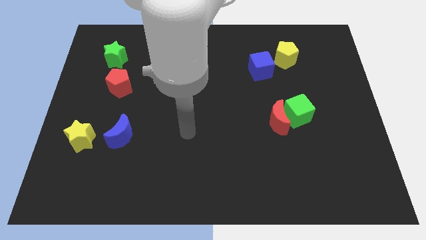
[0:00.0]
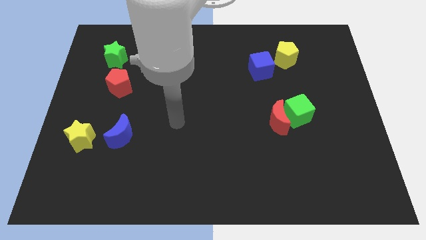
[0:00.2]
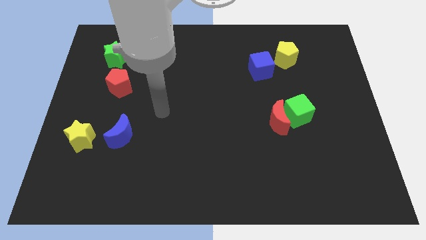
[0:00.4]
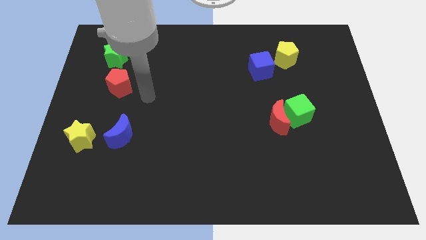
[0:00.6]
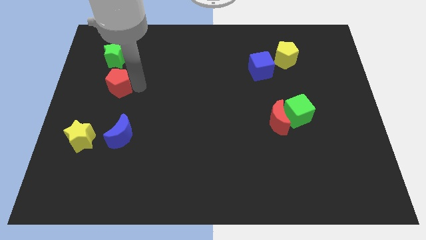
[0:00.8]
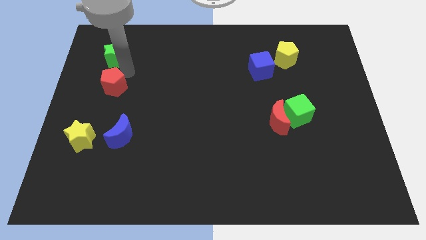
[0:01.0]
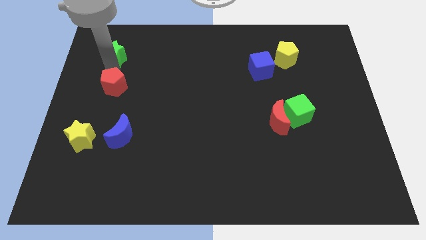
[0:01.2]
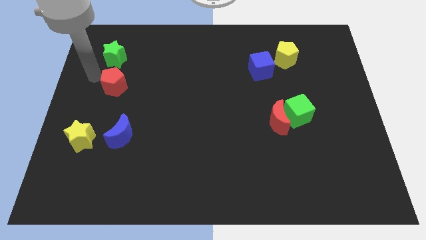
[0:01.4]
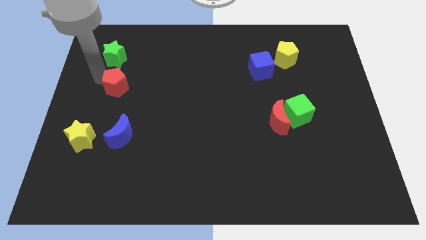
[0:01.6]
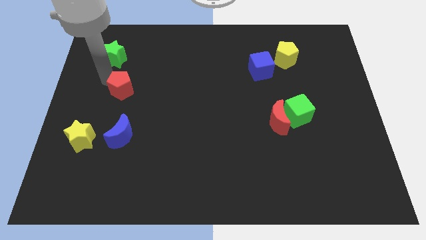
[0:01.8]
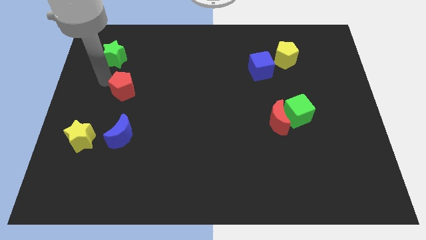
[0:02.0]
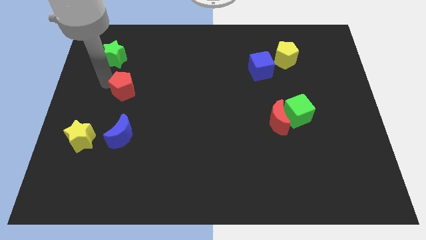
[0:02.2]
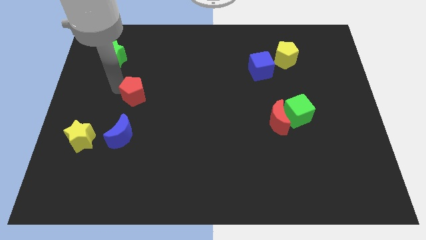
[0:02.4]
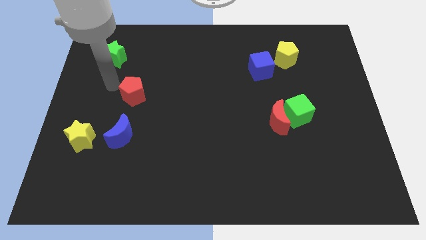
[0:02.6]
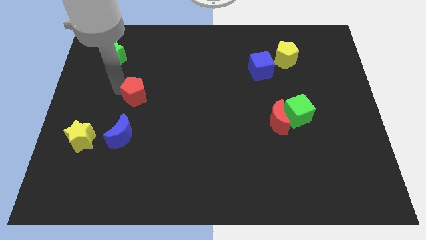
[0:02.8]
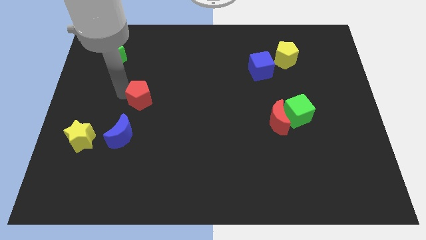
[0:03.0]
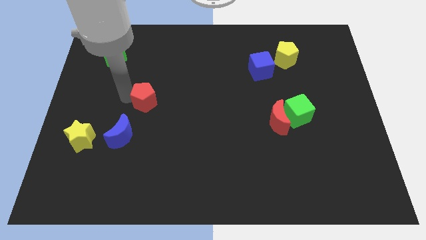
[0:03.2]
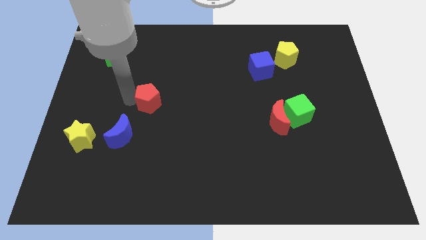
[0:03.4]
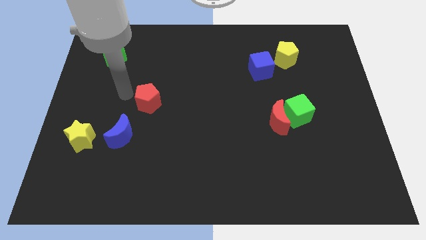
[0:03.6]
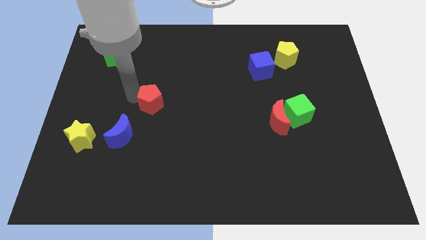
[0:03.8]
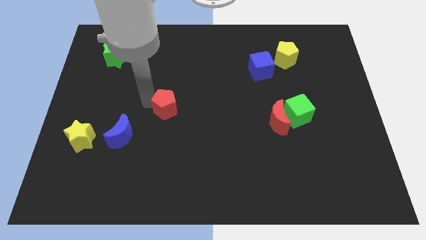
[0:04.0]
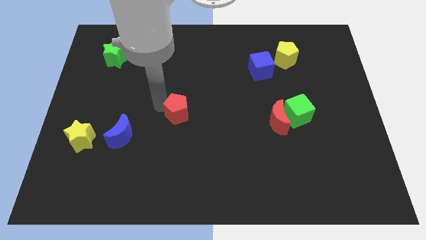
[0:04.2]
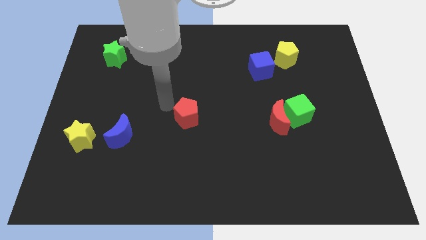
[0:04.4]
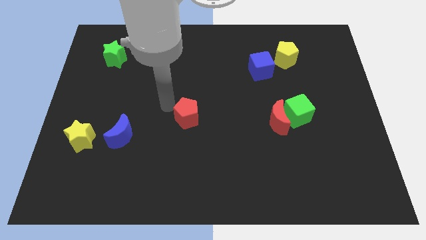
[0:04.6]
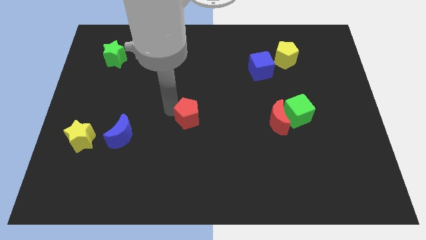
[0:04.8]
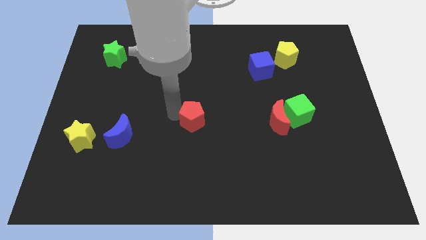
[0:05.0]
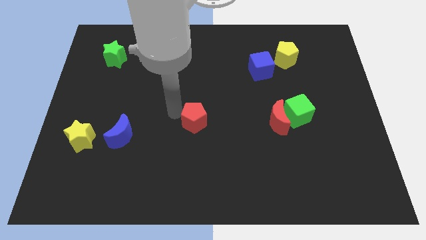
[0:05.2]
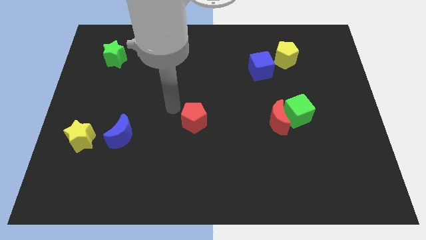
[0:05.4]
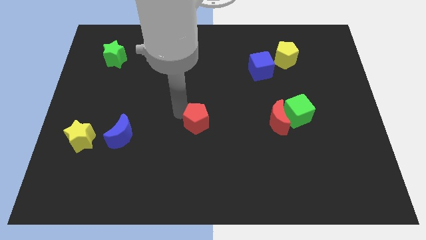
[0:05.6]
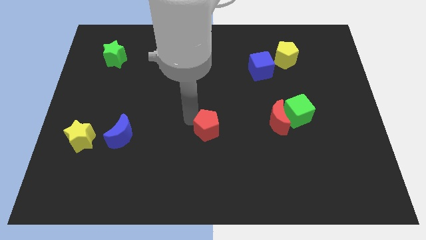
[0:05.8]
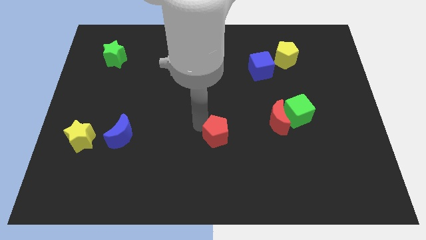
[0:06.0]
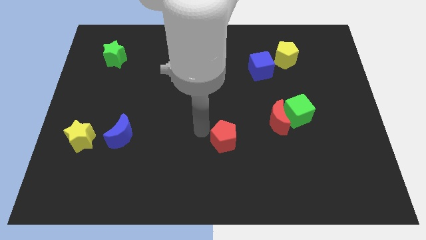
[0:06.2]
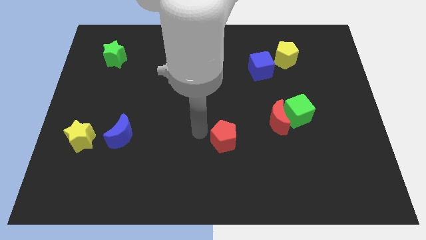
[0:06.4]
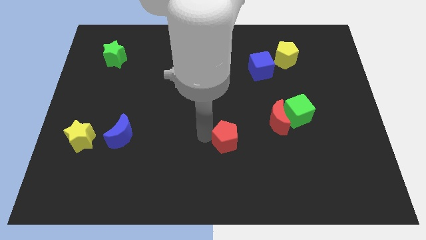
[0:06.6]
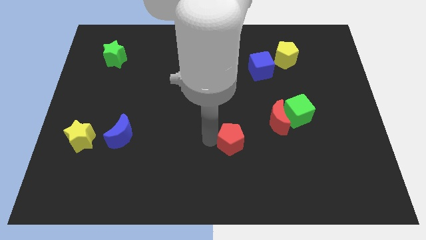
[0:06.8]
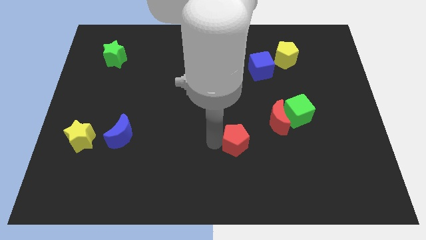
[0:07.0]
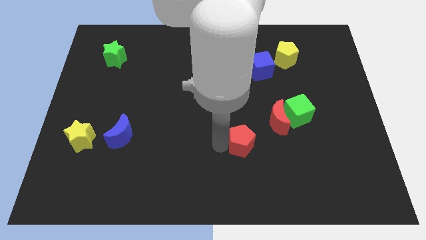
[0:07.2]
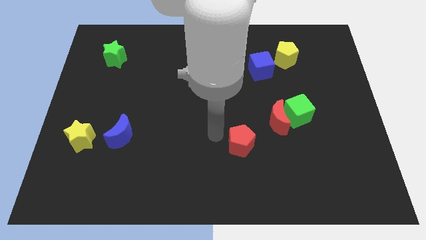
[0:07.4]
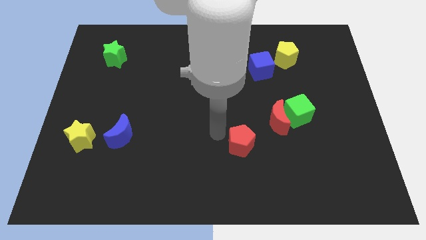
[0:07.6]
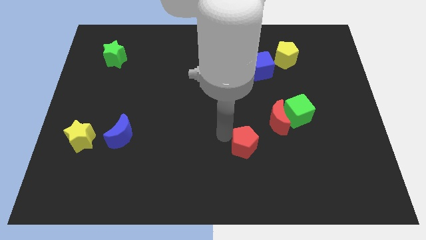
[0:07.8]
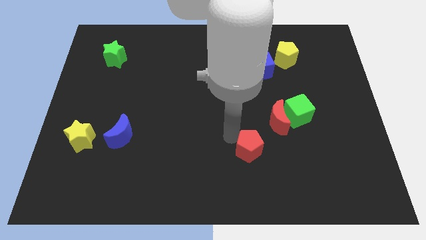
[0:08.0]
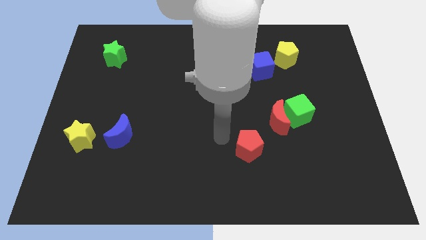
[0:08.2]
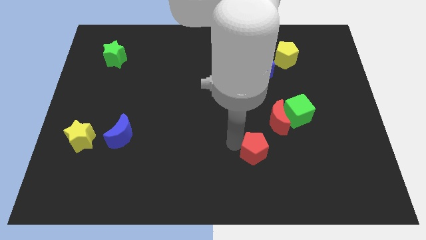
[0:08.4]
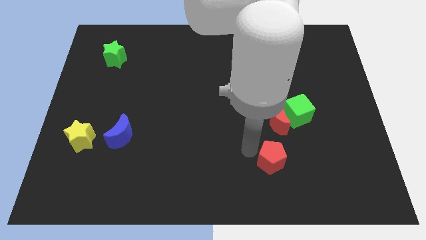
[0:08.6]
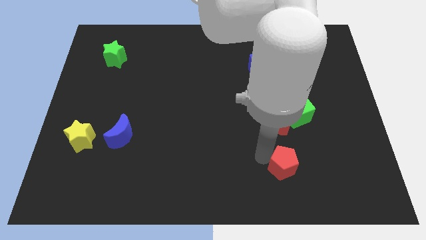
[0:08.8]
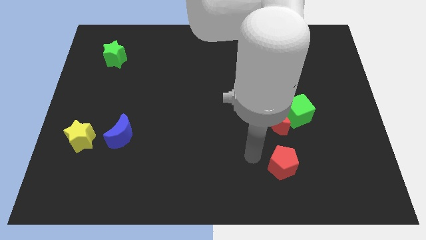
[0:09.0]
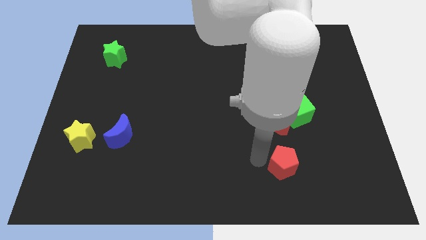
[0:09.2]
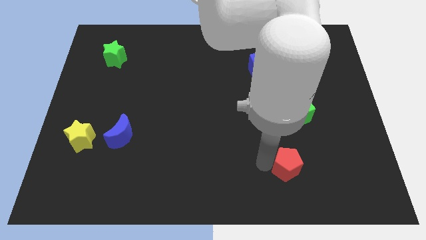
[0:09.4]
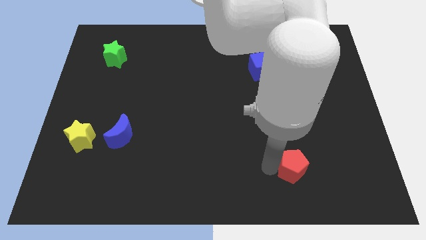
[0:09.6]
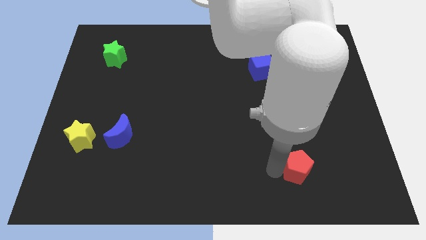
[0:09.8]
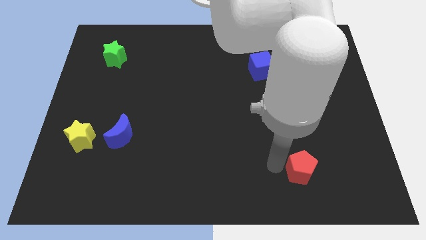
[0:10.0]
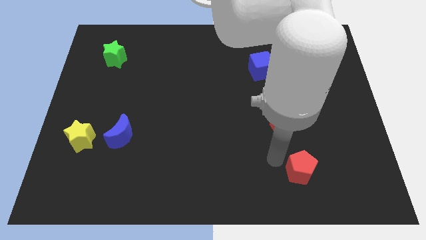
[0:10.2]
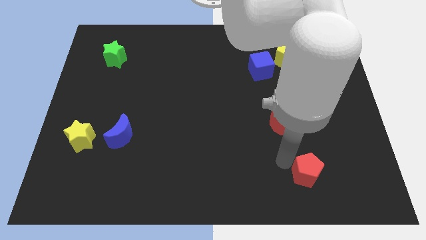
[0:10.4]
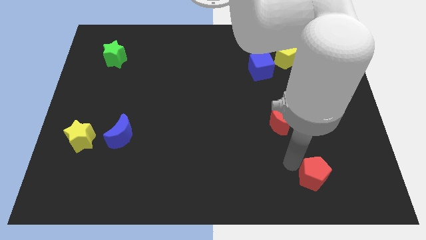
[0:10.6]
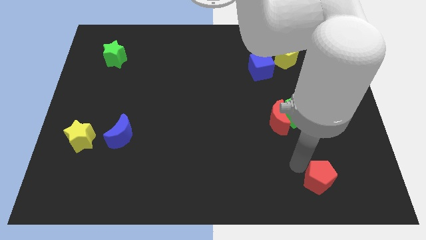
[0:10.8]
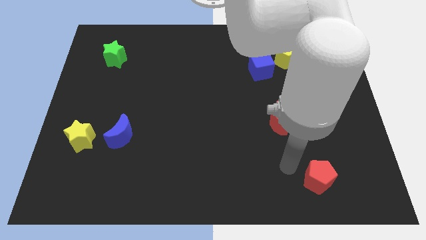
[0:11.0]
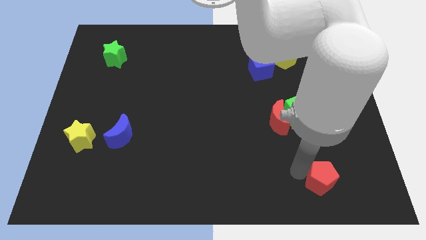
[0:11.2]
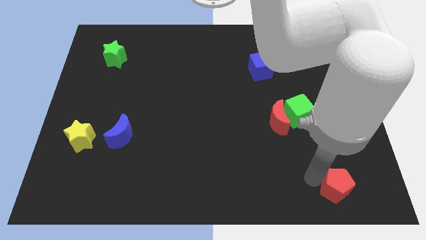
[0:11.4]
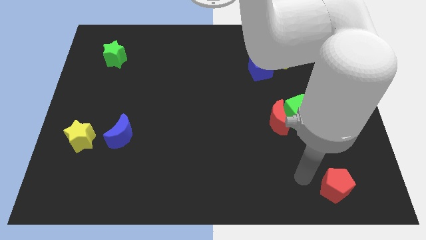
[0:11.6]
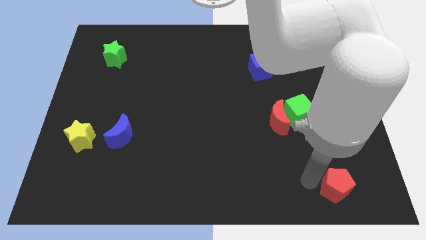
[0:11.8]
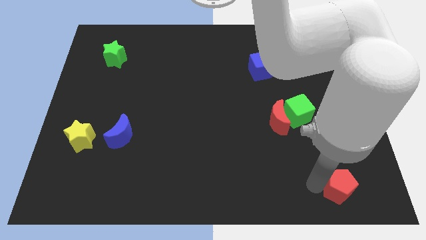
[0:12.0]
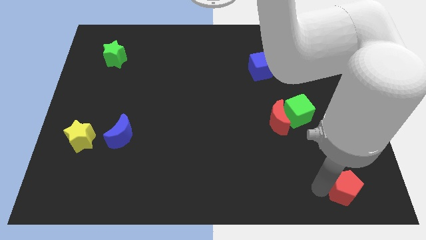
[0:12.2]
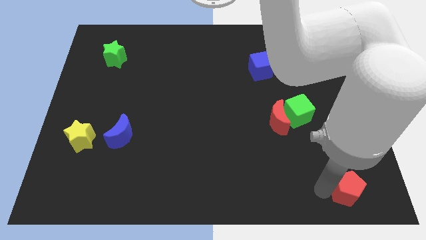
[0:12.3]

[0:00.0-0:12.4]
push the red pentagon to the bottom right of the board

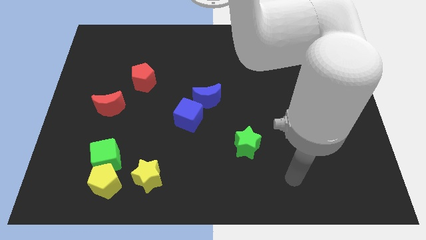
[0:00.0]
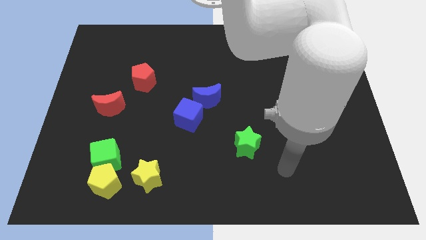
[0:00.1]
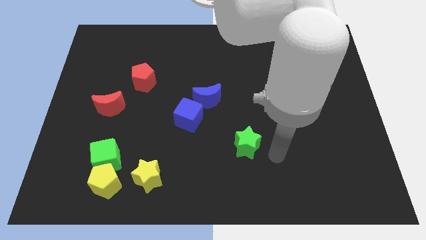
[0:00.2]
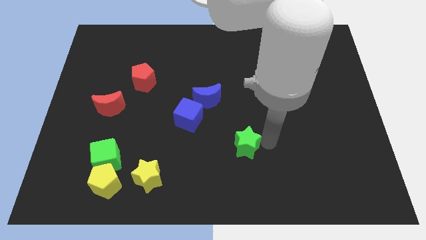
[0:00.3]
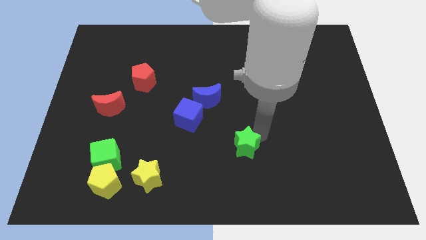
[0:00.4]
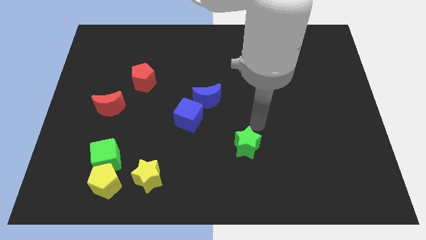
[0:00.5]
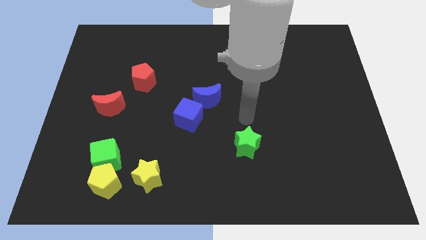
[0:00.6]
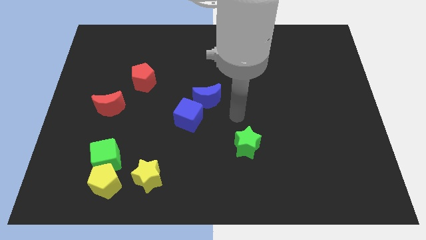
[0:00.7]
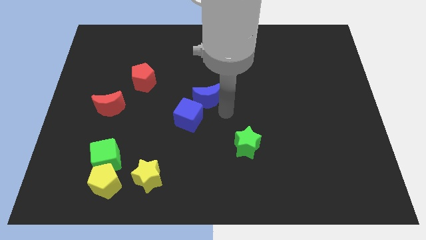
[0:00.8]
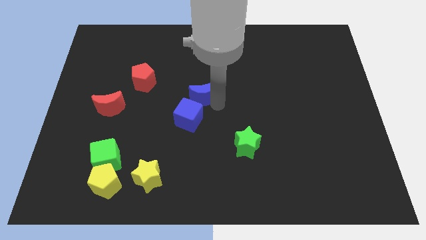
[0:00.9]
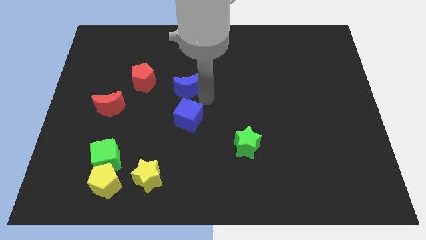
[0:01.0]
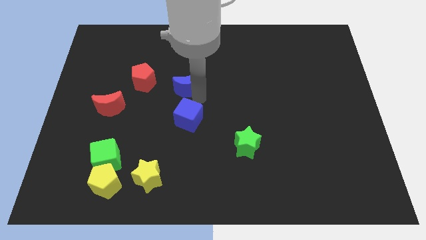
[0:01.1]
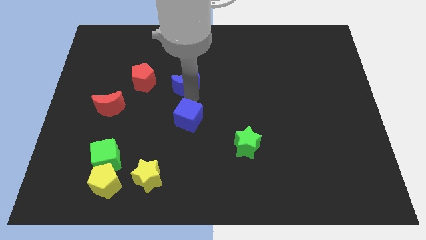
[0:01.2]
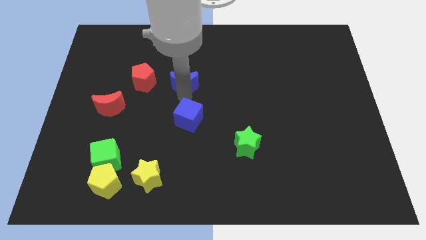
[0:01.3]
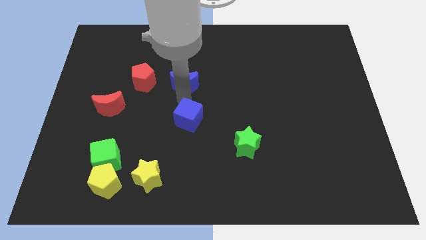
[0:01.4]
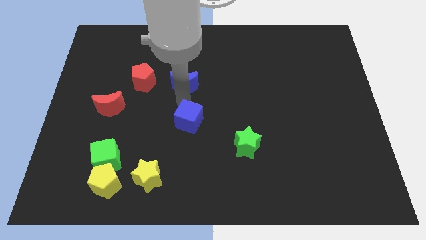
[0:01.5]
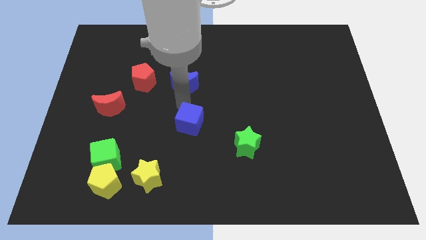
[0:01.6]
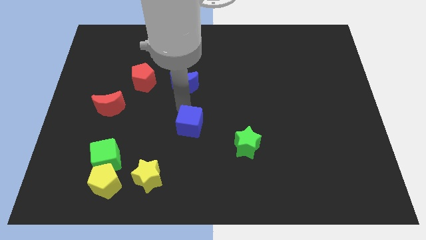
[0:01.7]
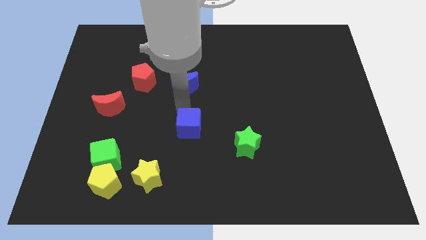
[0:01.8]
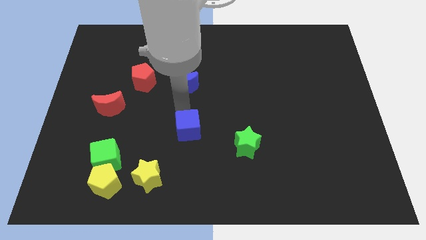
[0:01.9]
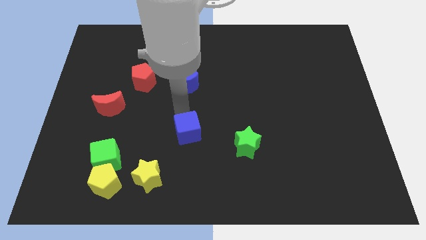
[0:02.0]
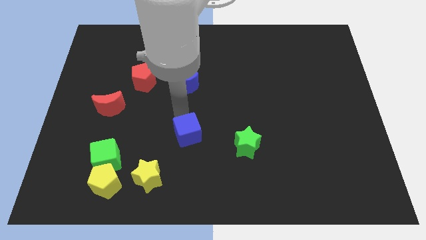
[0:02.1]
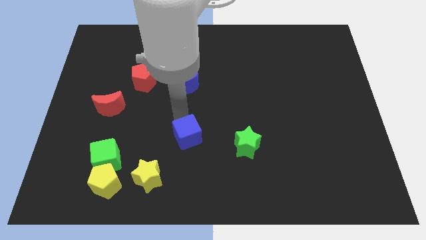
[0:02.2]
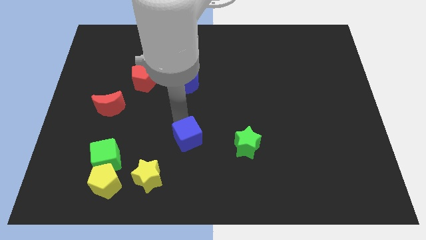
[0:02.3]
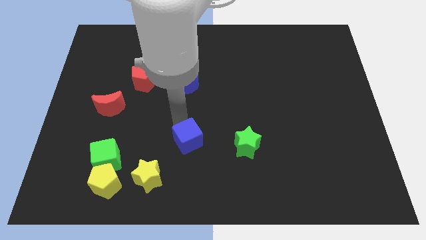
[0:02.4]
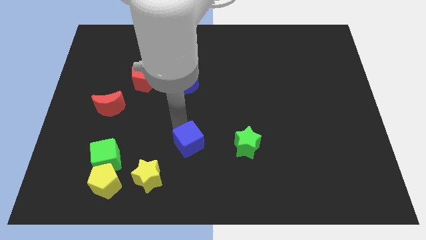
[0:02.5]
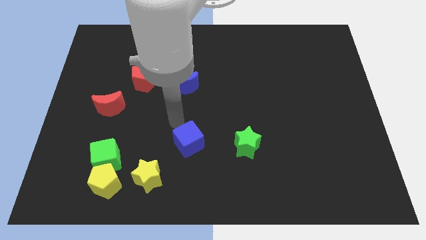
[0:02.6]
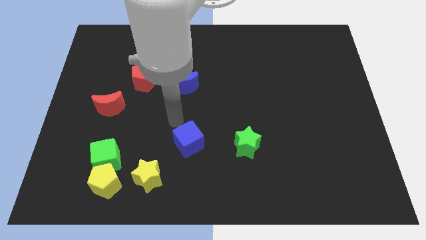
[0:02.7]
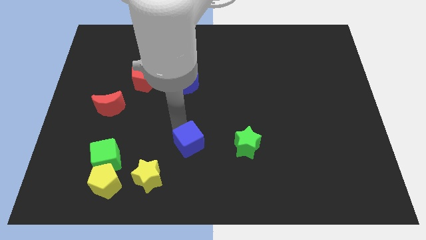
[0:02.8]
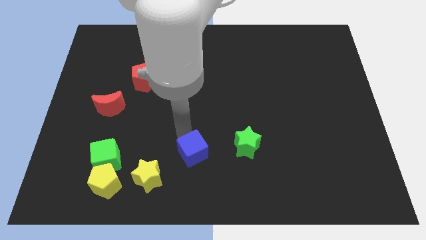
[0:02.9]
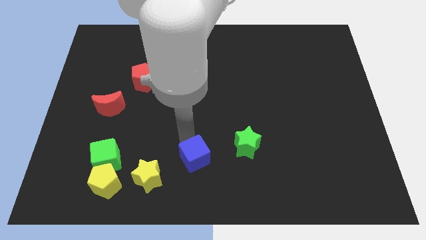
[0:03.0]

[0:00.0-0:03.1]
slide the blue cube to the bottom side
